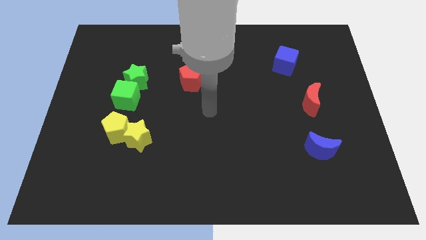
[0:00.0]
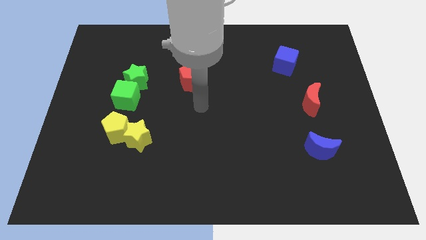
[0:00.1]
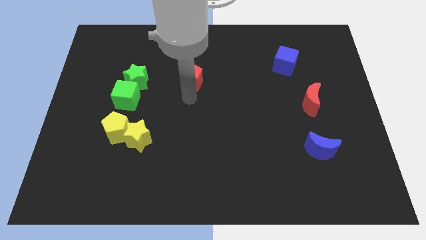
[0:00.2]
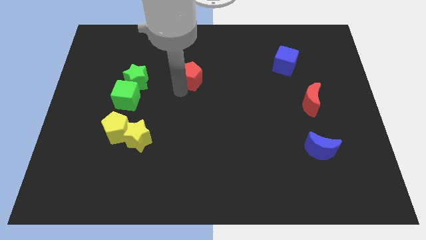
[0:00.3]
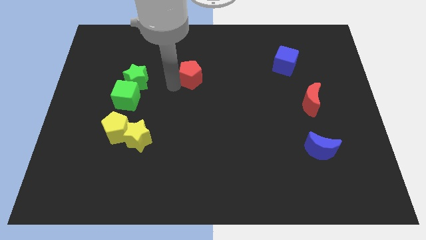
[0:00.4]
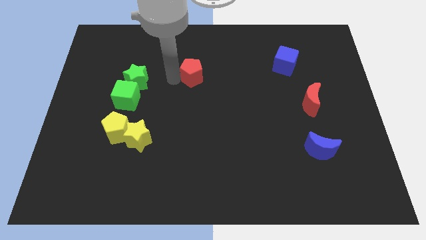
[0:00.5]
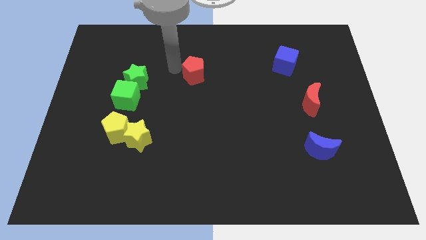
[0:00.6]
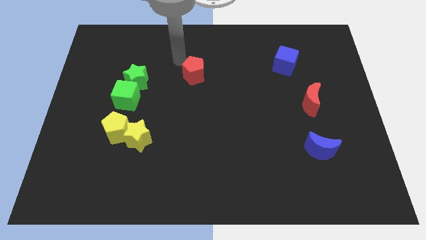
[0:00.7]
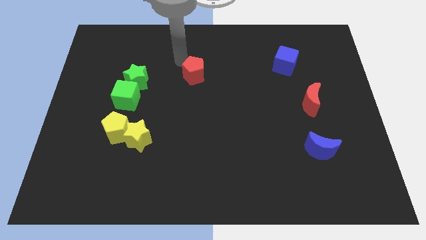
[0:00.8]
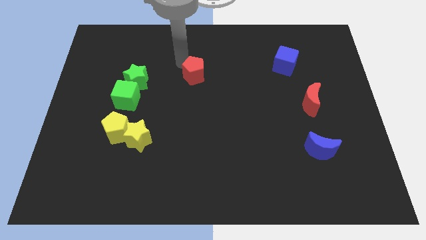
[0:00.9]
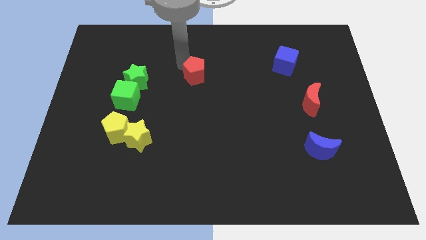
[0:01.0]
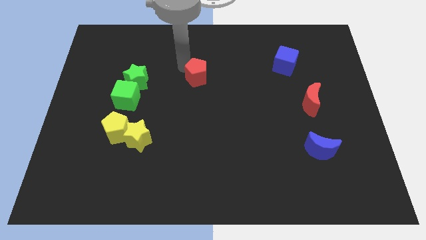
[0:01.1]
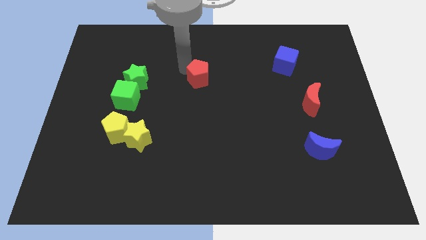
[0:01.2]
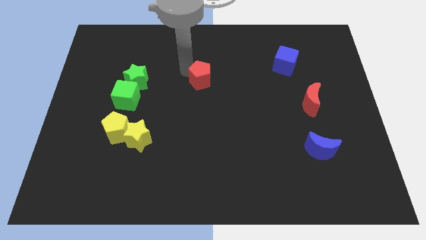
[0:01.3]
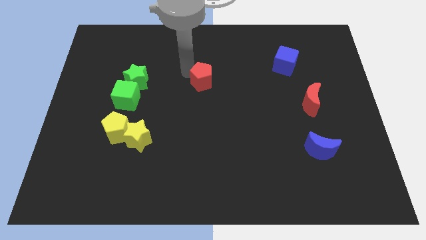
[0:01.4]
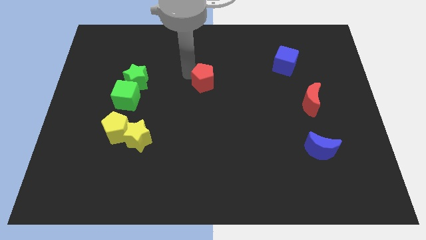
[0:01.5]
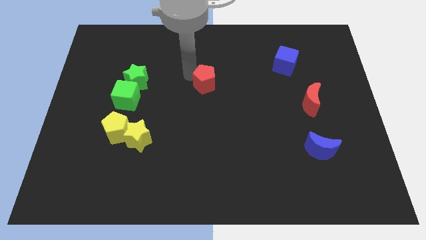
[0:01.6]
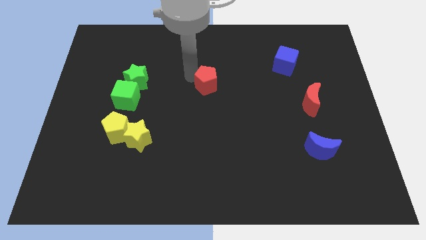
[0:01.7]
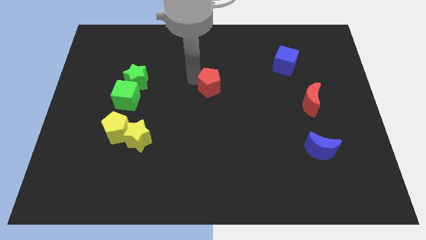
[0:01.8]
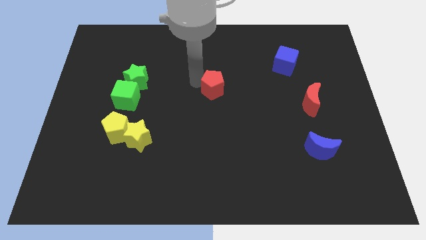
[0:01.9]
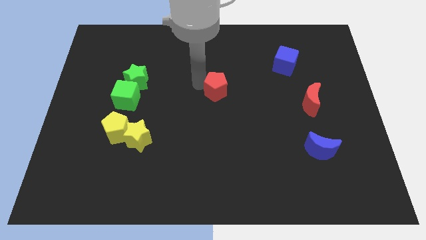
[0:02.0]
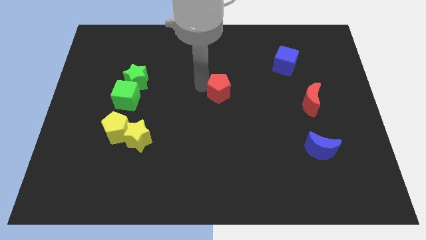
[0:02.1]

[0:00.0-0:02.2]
push the red pentagon a little bit downwards and then to the right

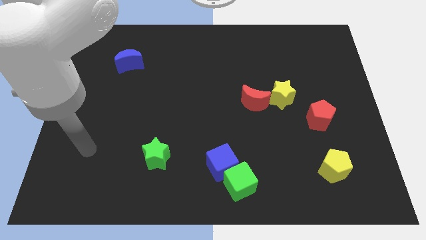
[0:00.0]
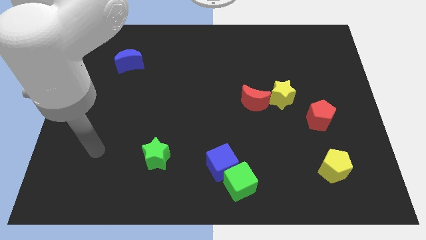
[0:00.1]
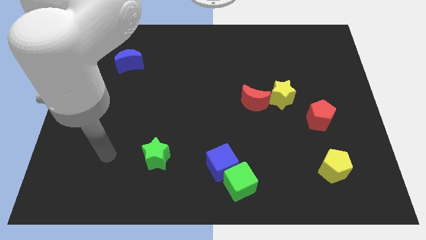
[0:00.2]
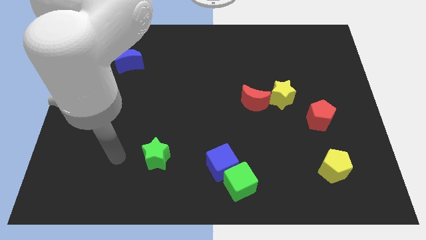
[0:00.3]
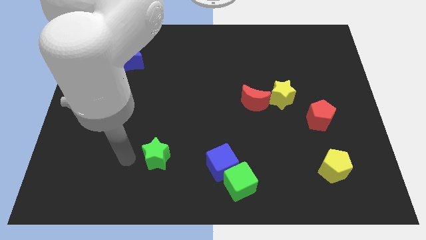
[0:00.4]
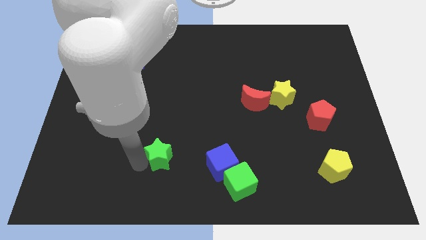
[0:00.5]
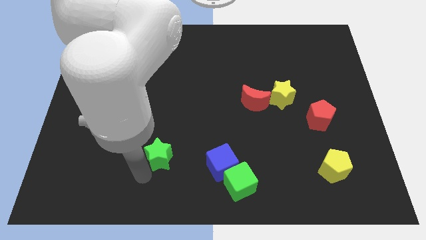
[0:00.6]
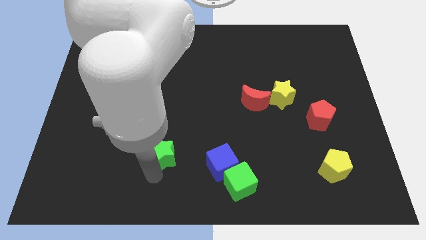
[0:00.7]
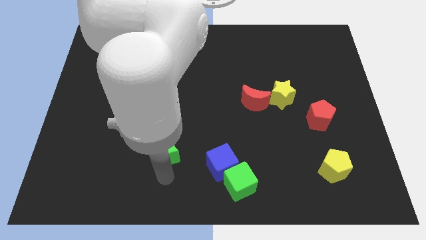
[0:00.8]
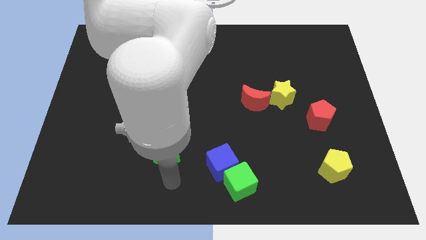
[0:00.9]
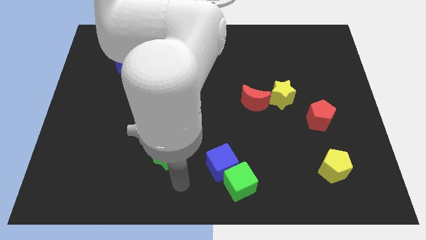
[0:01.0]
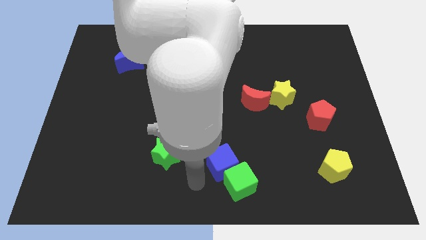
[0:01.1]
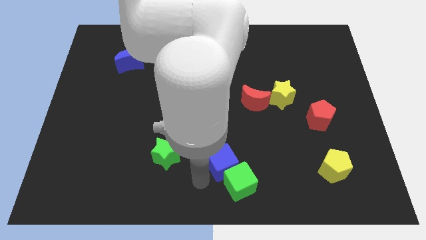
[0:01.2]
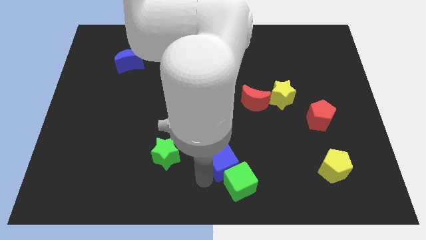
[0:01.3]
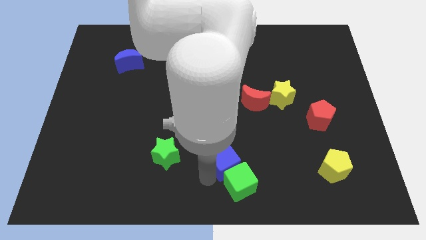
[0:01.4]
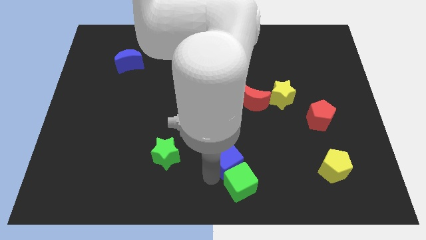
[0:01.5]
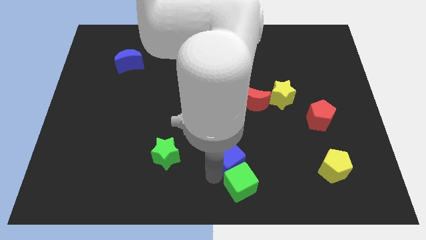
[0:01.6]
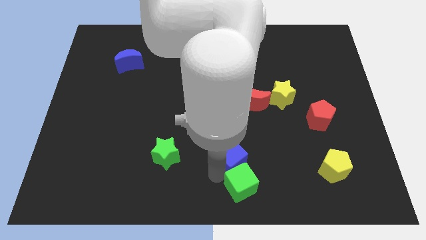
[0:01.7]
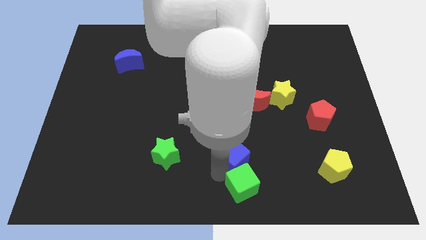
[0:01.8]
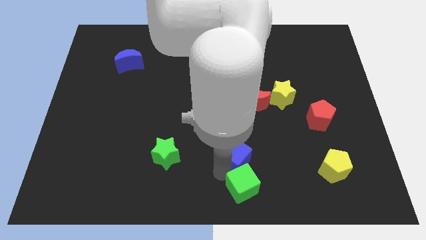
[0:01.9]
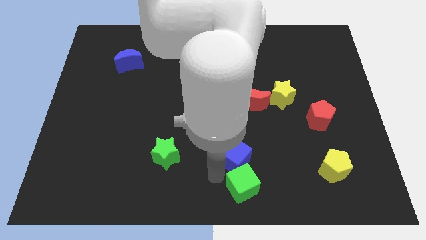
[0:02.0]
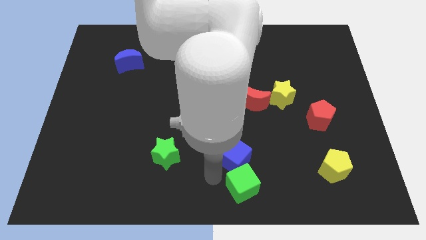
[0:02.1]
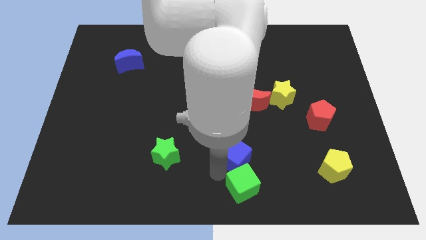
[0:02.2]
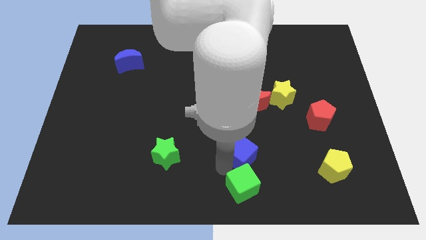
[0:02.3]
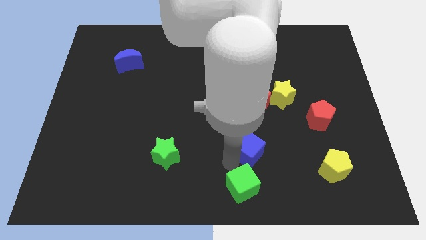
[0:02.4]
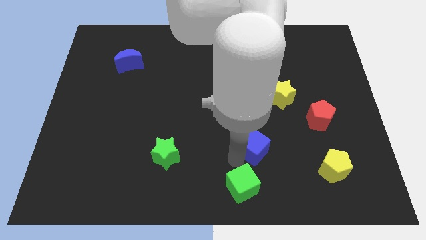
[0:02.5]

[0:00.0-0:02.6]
slightly move the blue cube diagonally up and to the right

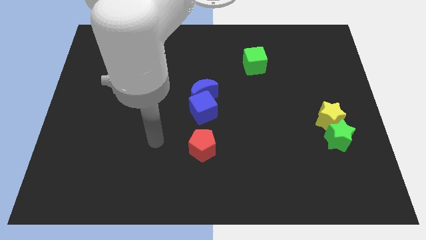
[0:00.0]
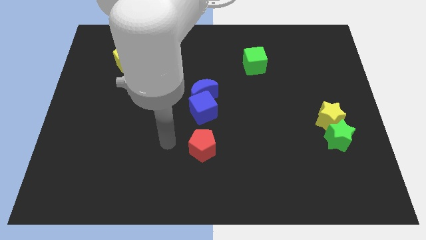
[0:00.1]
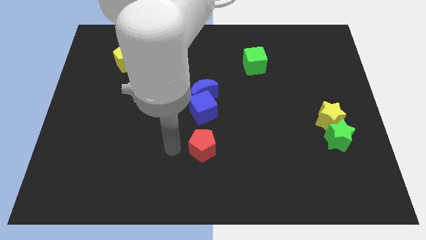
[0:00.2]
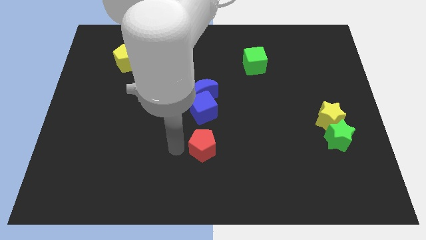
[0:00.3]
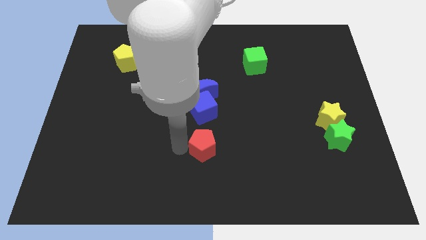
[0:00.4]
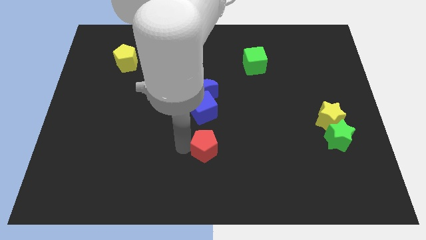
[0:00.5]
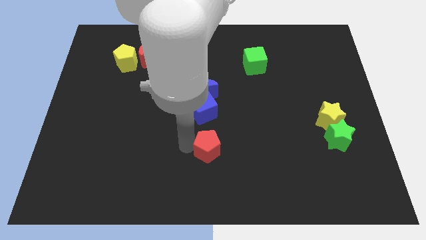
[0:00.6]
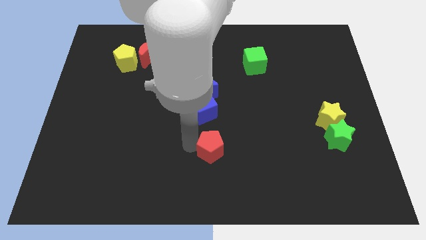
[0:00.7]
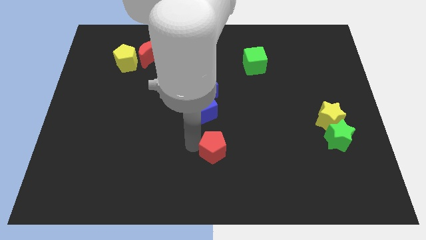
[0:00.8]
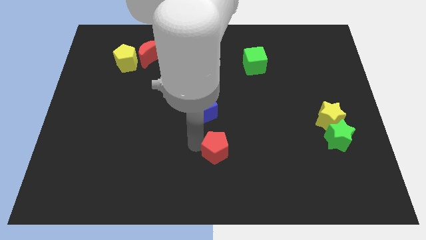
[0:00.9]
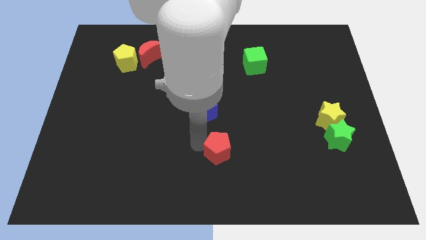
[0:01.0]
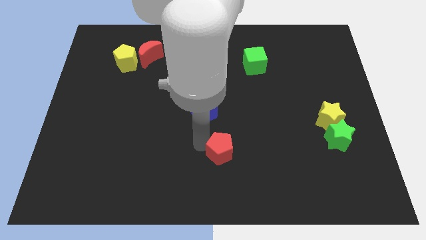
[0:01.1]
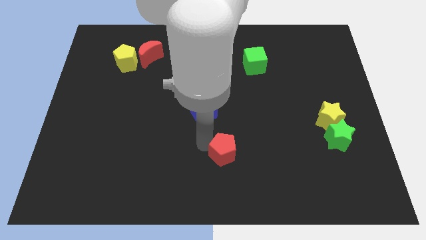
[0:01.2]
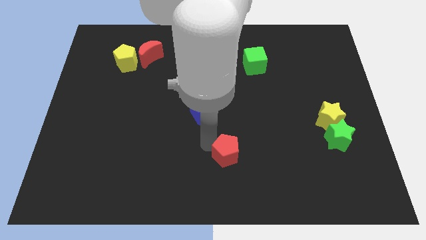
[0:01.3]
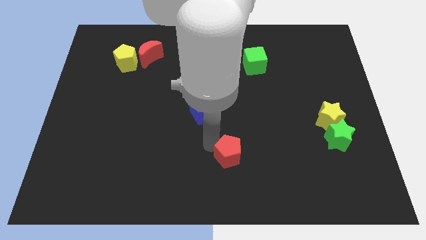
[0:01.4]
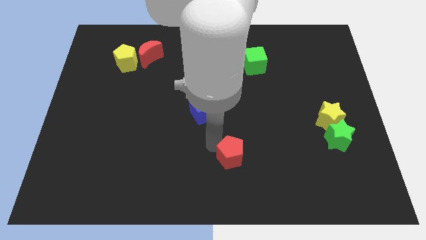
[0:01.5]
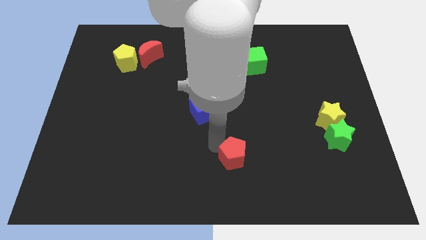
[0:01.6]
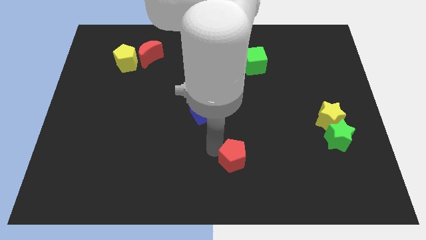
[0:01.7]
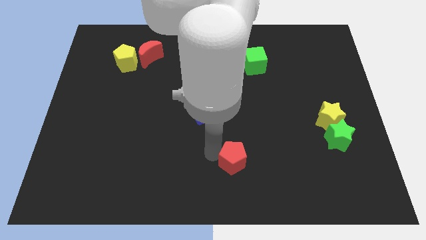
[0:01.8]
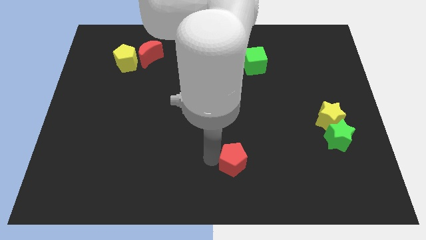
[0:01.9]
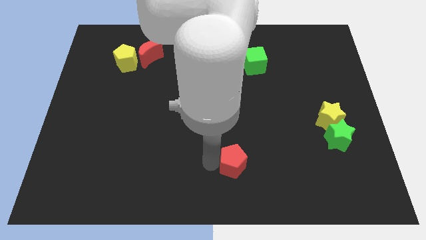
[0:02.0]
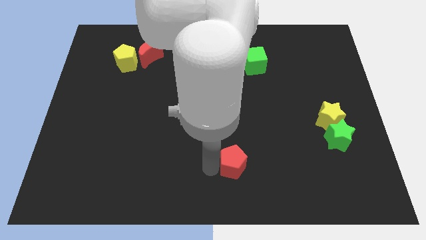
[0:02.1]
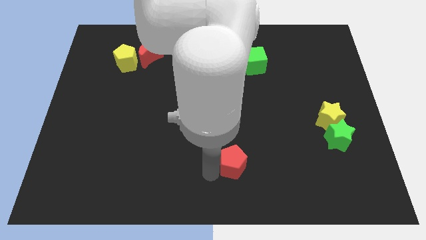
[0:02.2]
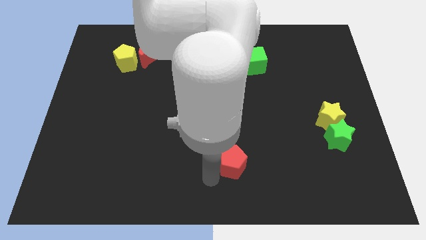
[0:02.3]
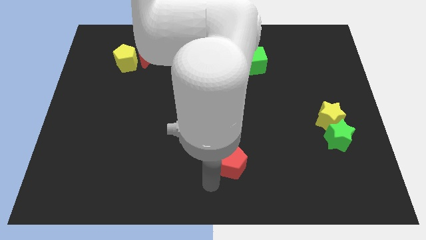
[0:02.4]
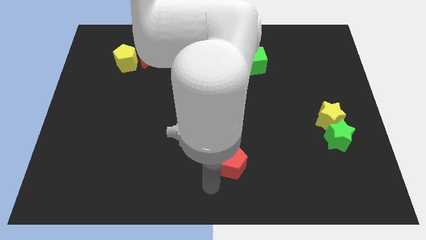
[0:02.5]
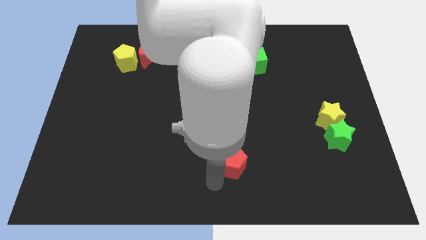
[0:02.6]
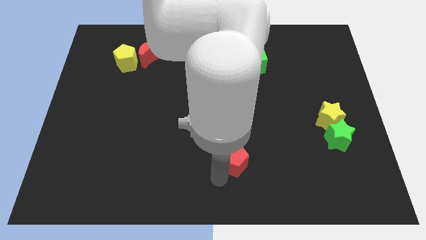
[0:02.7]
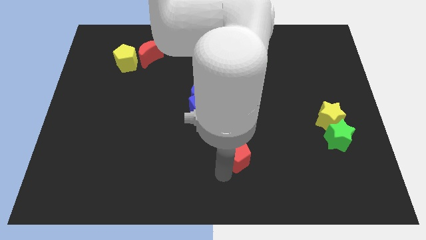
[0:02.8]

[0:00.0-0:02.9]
push the red pentagon a little bit to the right

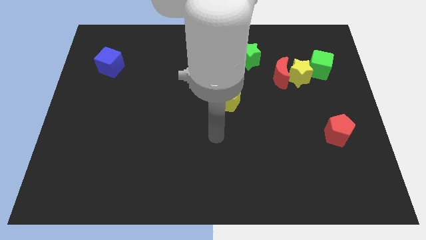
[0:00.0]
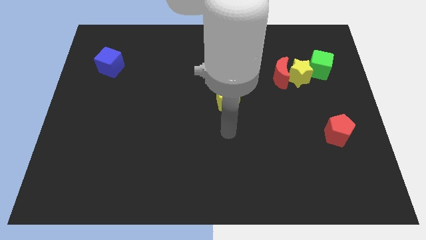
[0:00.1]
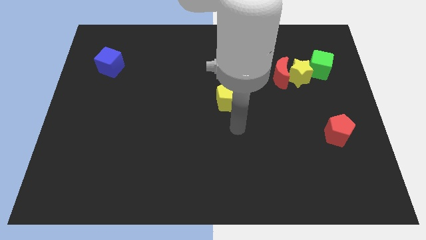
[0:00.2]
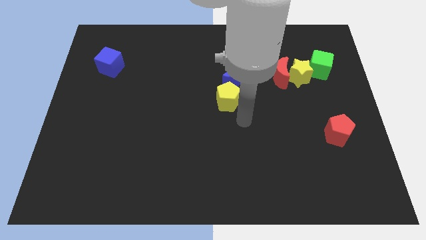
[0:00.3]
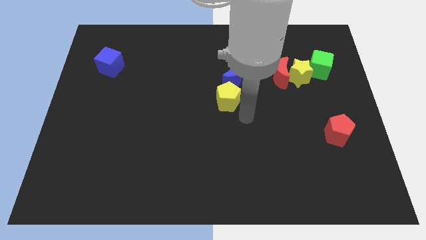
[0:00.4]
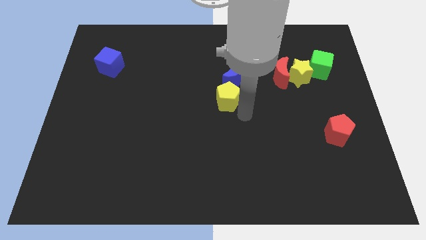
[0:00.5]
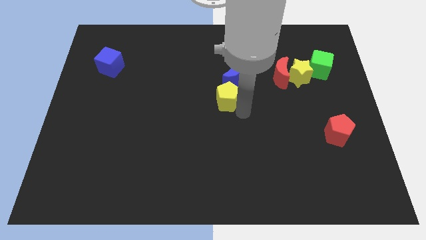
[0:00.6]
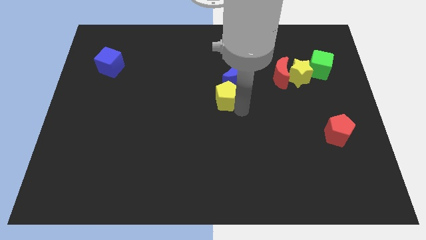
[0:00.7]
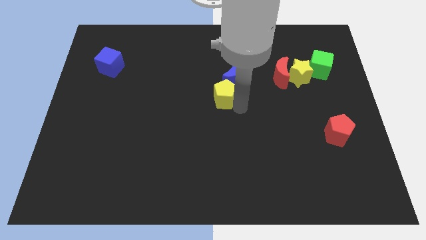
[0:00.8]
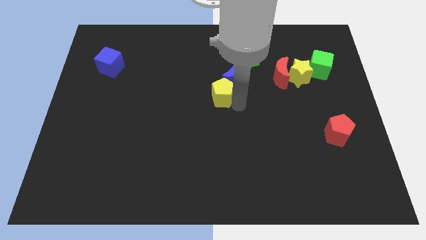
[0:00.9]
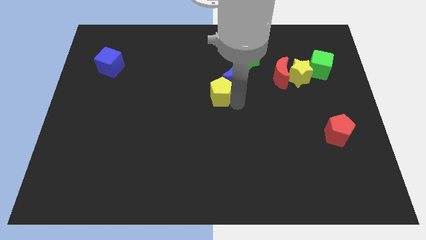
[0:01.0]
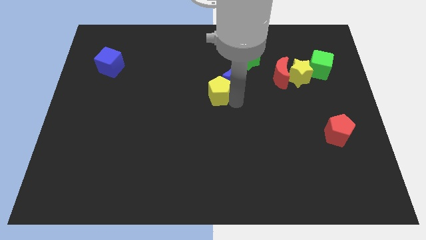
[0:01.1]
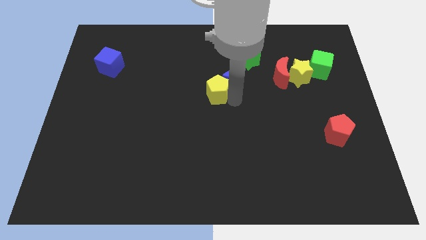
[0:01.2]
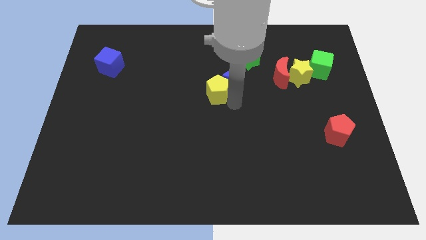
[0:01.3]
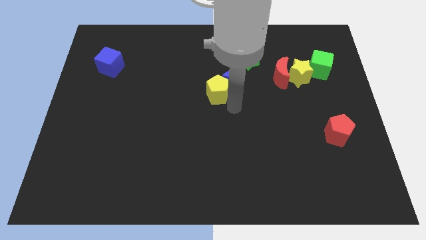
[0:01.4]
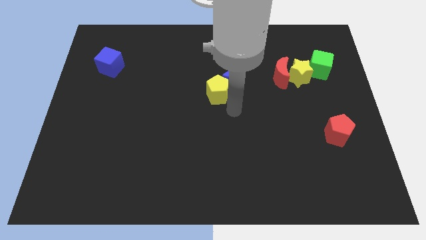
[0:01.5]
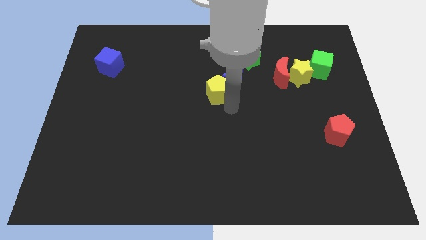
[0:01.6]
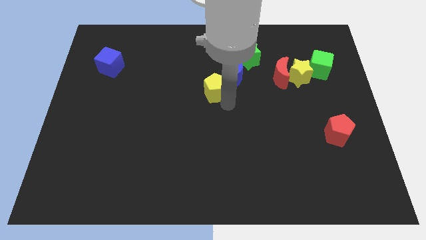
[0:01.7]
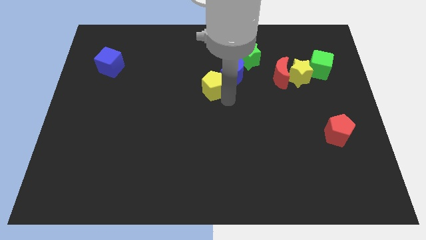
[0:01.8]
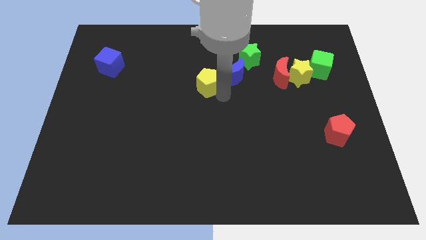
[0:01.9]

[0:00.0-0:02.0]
slightly move the yellow pentagon up and then to the left
